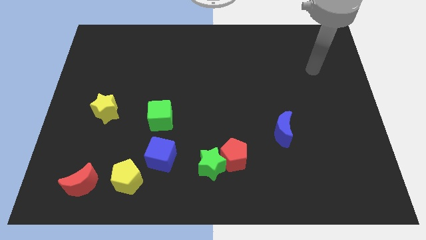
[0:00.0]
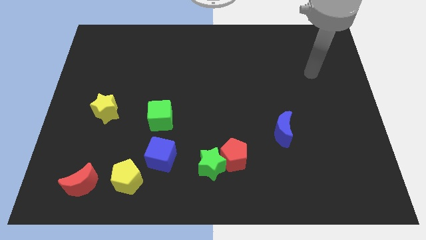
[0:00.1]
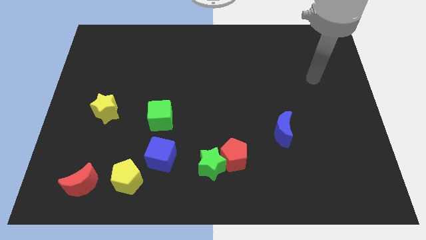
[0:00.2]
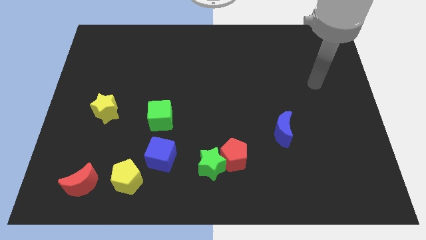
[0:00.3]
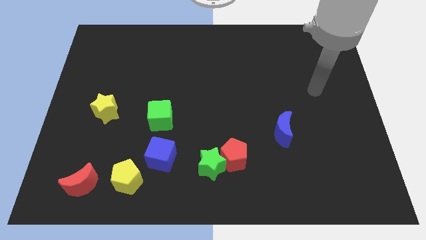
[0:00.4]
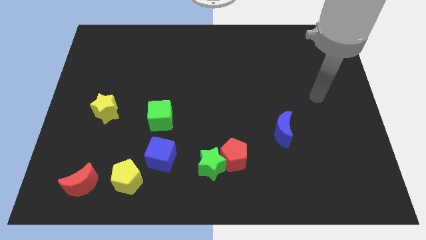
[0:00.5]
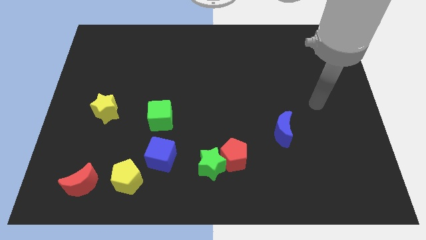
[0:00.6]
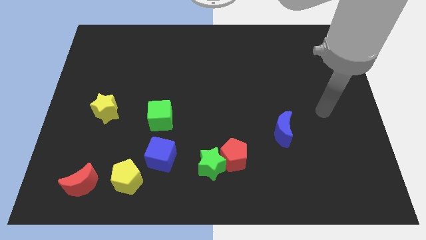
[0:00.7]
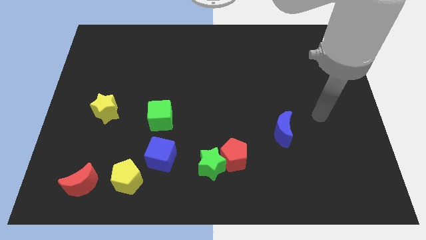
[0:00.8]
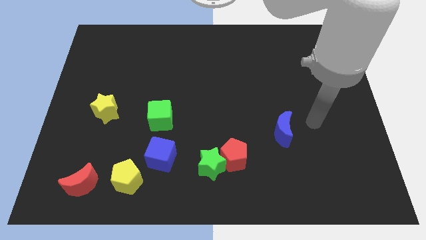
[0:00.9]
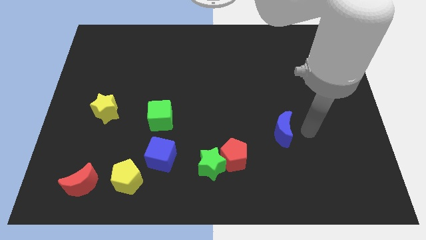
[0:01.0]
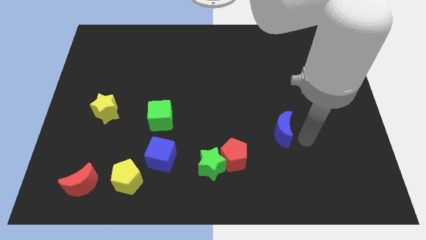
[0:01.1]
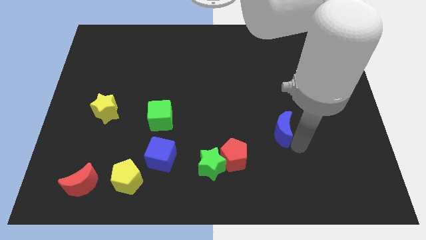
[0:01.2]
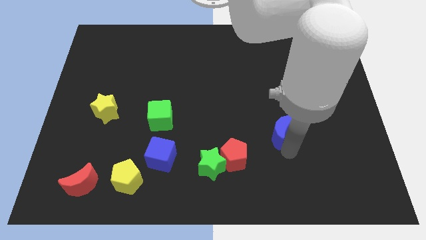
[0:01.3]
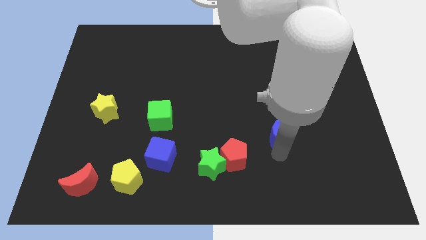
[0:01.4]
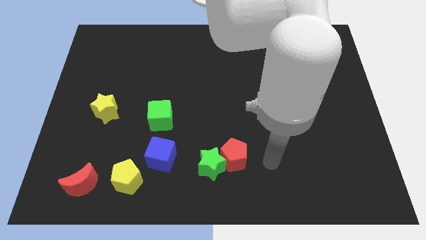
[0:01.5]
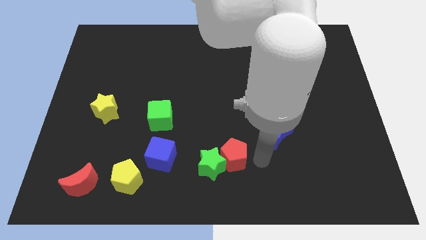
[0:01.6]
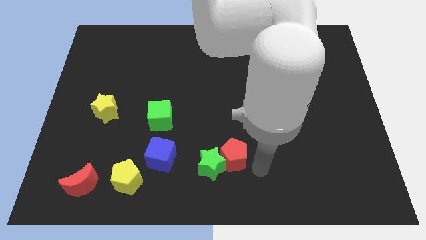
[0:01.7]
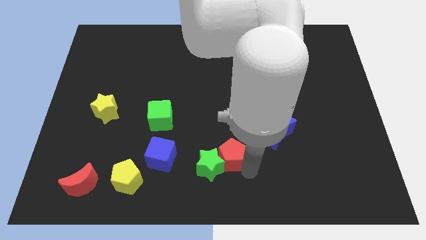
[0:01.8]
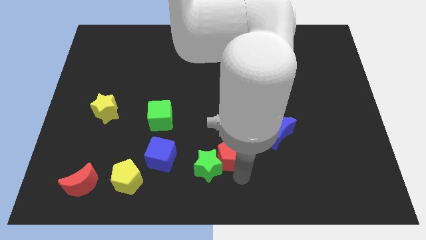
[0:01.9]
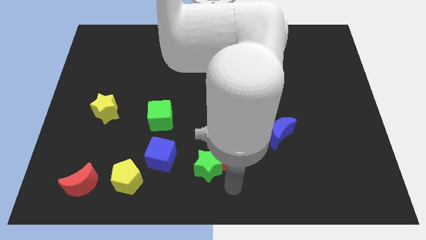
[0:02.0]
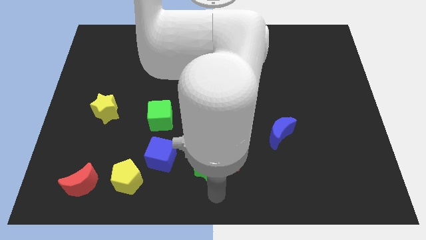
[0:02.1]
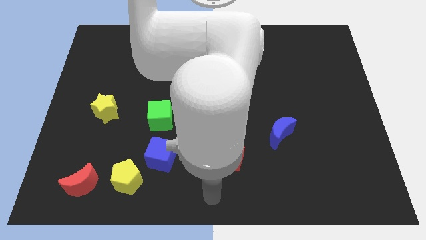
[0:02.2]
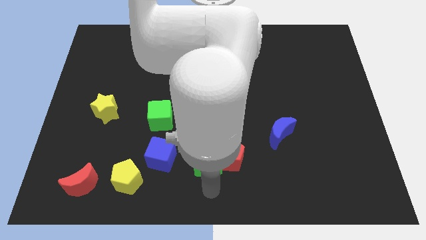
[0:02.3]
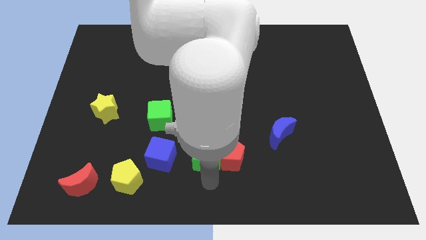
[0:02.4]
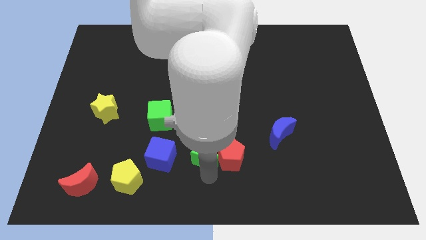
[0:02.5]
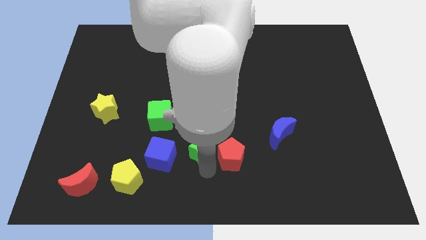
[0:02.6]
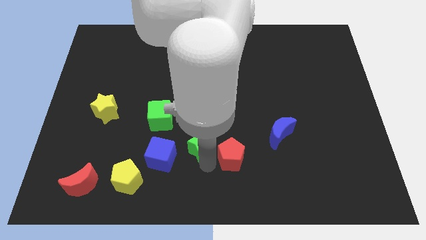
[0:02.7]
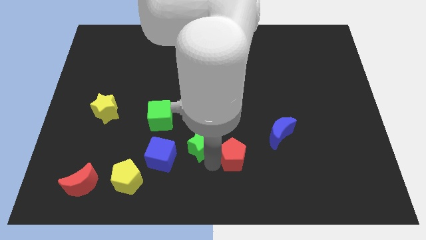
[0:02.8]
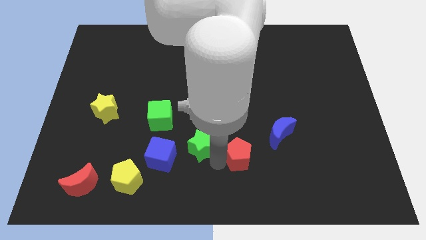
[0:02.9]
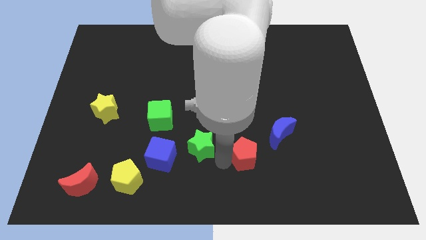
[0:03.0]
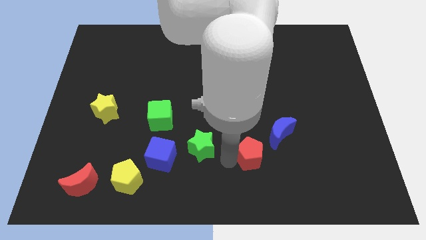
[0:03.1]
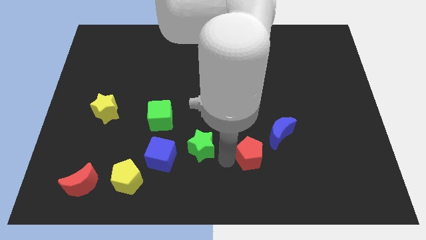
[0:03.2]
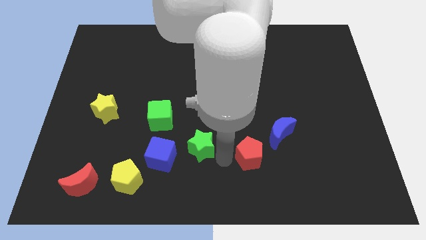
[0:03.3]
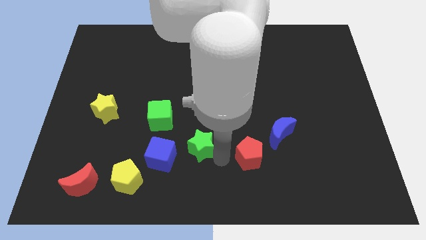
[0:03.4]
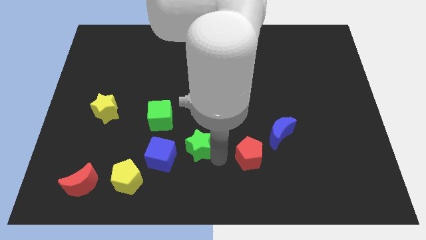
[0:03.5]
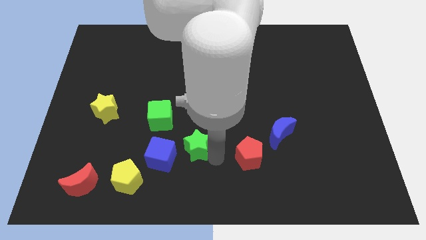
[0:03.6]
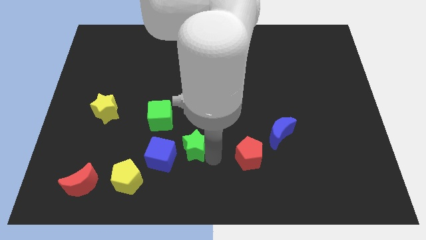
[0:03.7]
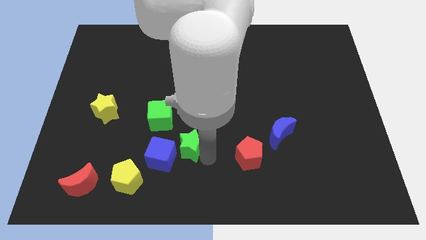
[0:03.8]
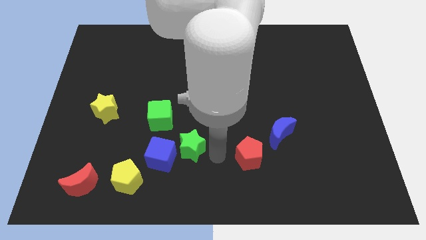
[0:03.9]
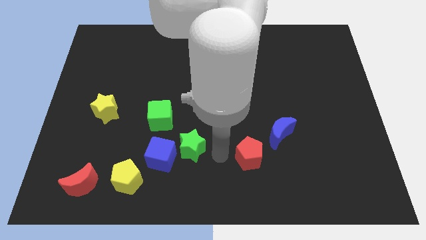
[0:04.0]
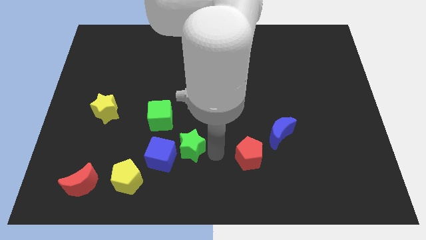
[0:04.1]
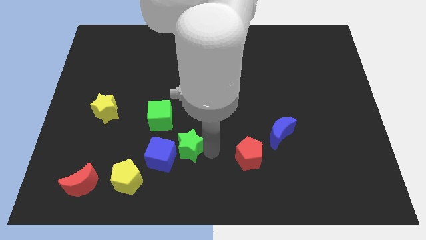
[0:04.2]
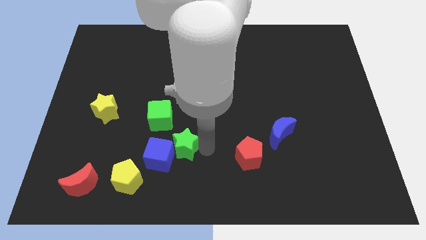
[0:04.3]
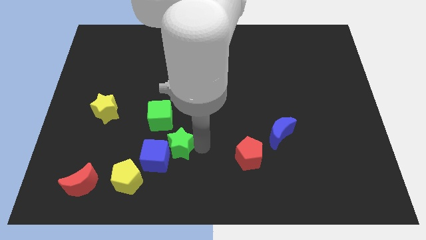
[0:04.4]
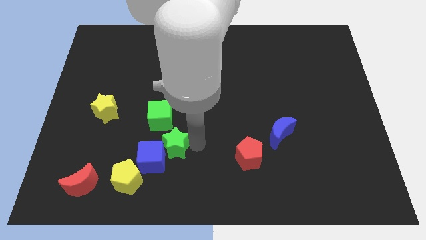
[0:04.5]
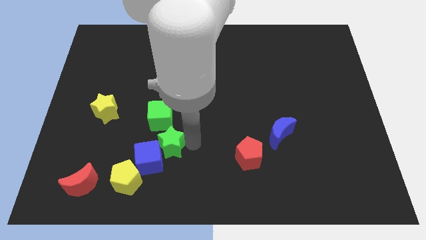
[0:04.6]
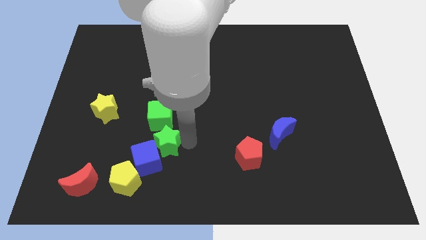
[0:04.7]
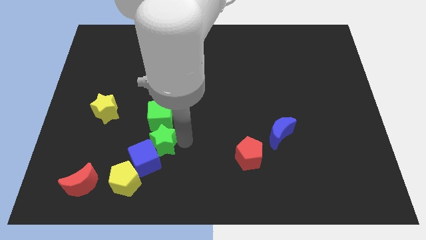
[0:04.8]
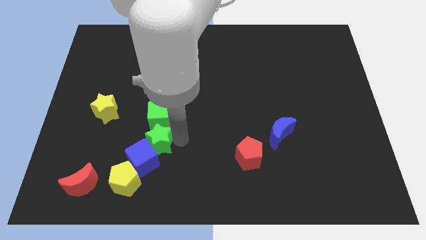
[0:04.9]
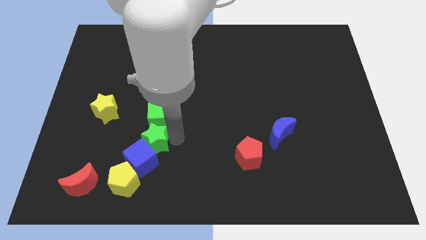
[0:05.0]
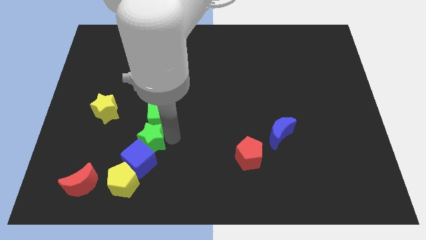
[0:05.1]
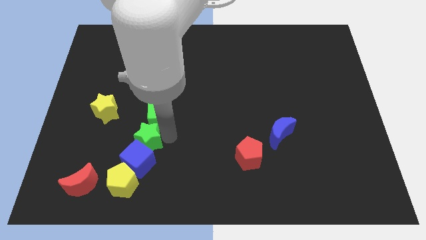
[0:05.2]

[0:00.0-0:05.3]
move the green star diagonally up and to the left of the blue cube
